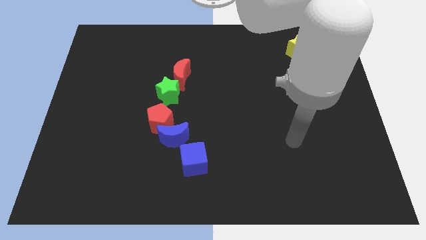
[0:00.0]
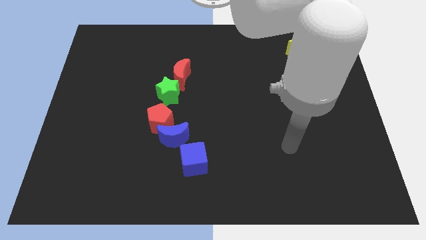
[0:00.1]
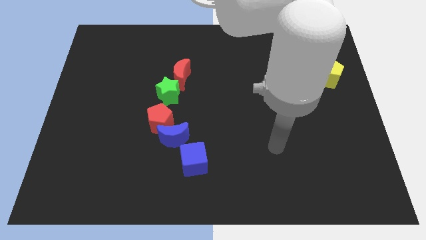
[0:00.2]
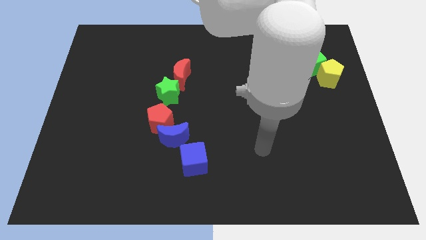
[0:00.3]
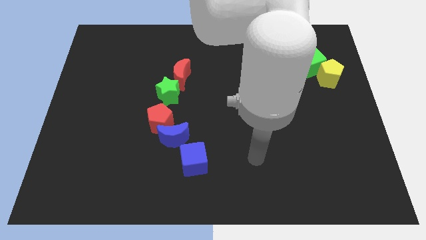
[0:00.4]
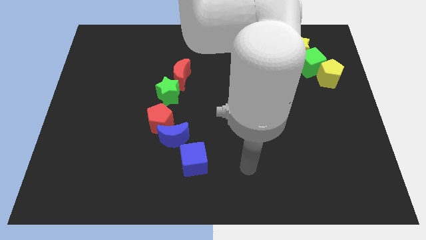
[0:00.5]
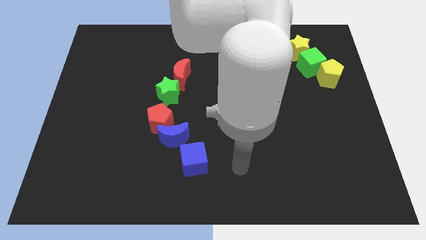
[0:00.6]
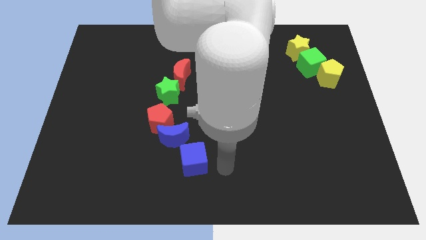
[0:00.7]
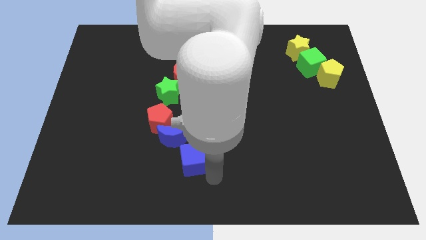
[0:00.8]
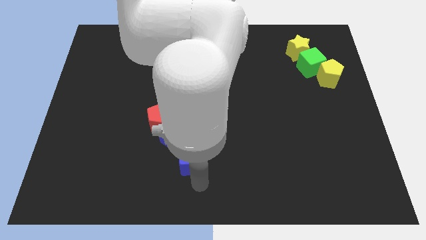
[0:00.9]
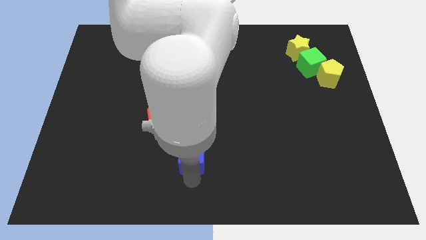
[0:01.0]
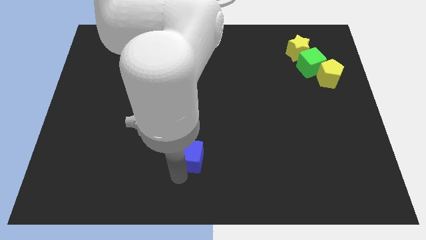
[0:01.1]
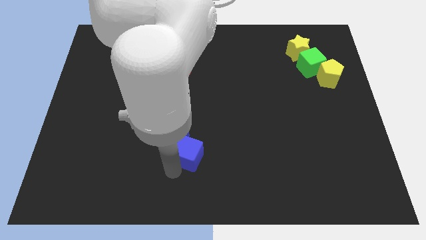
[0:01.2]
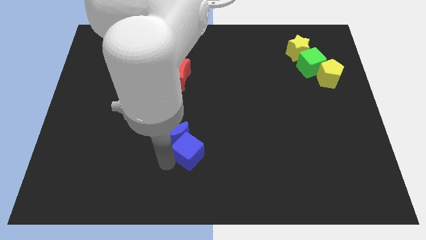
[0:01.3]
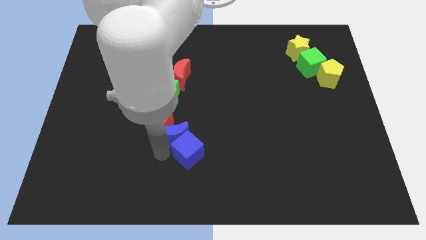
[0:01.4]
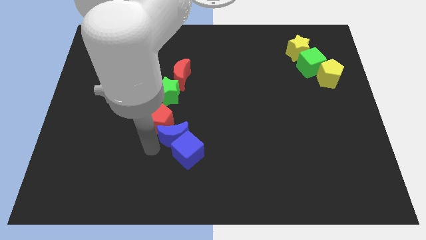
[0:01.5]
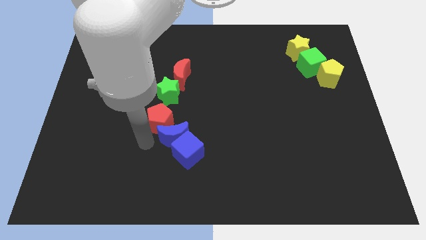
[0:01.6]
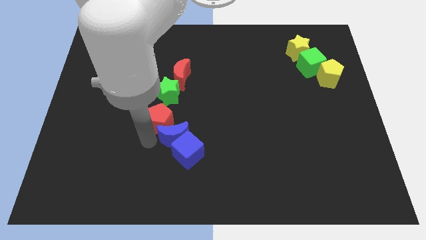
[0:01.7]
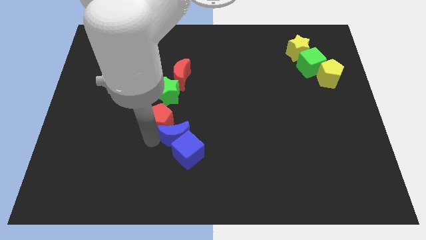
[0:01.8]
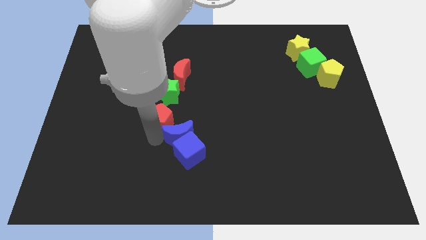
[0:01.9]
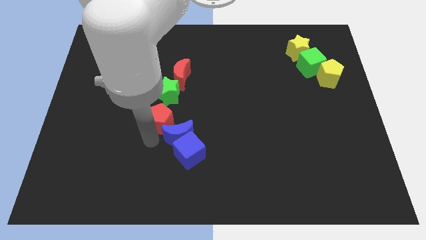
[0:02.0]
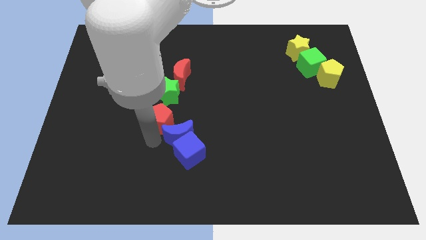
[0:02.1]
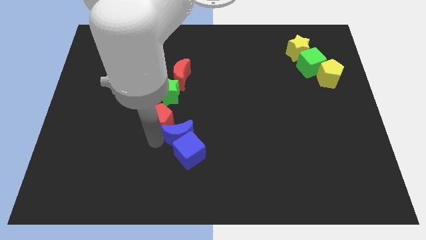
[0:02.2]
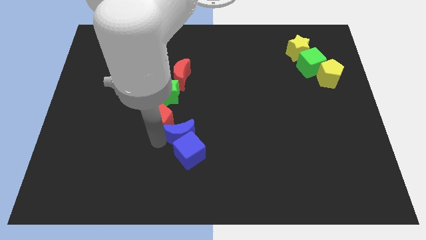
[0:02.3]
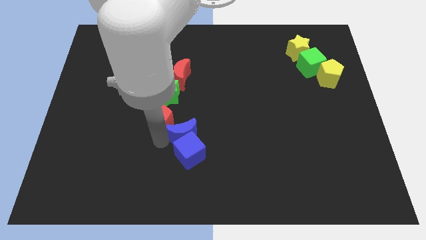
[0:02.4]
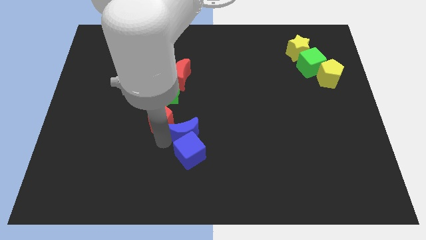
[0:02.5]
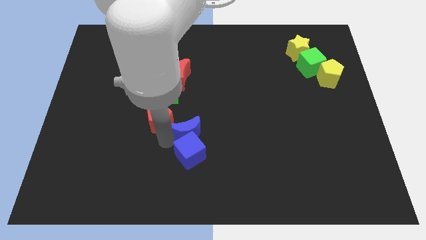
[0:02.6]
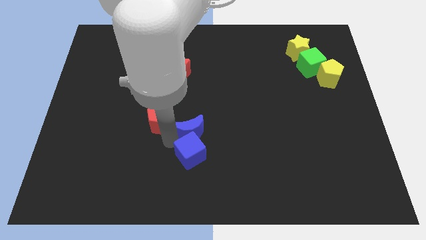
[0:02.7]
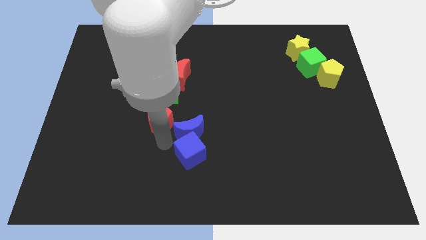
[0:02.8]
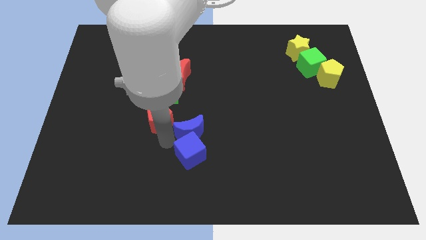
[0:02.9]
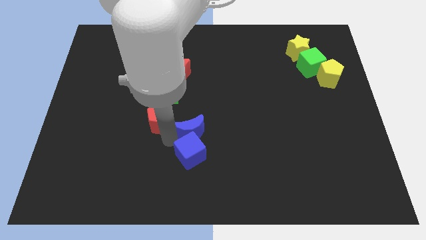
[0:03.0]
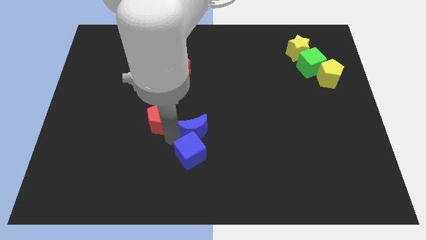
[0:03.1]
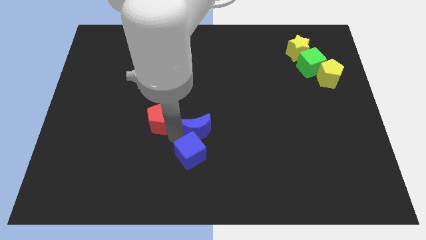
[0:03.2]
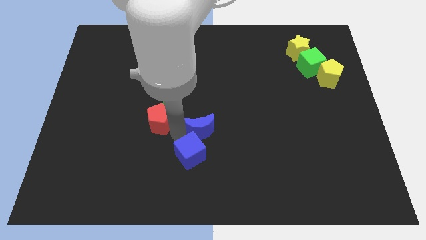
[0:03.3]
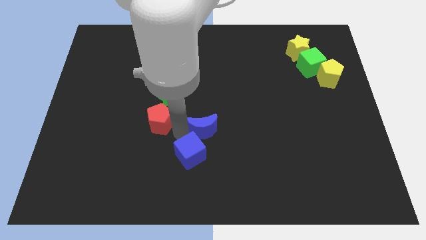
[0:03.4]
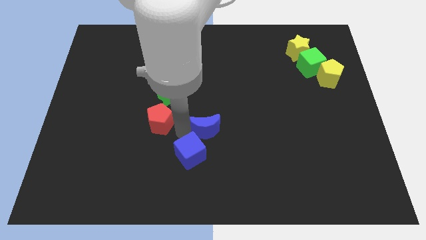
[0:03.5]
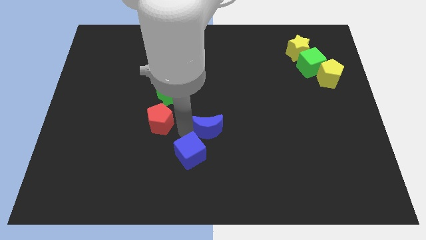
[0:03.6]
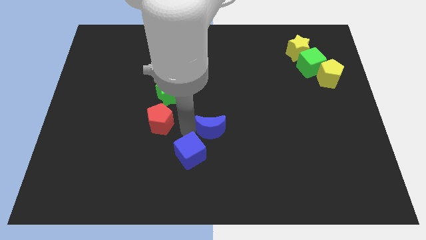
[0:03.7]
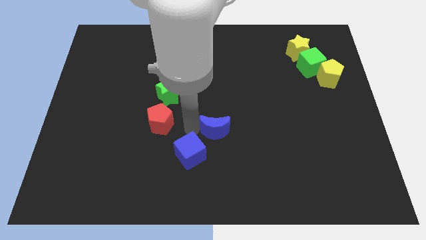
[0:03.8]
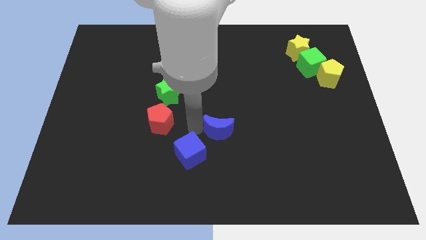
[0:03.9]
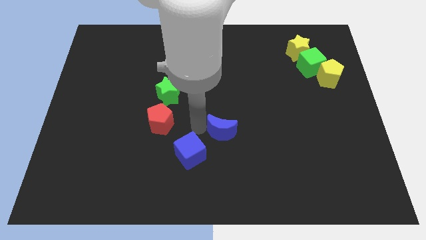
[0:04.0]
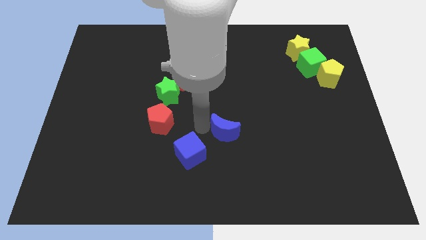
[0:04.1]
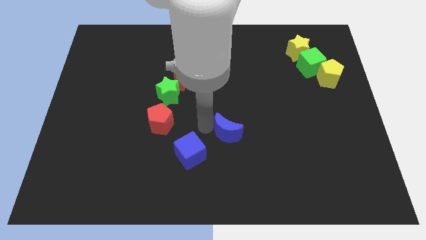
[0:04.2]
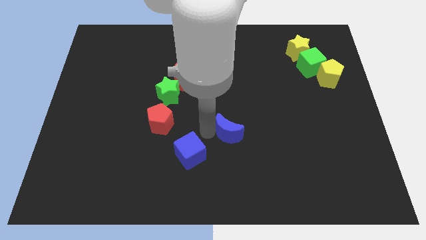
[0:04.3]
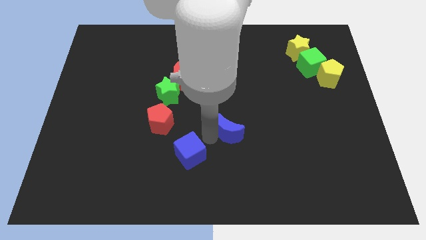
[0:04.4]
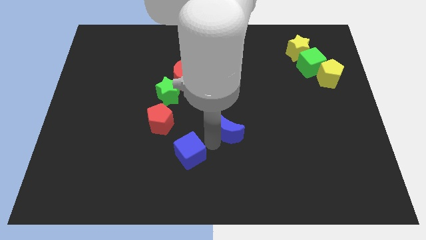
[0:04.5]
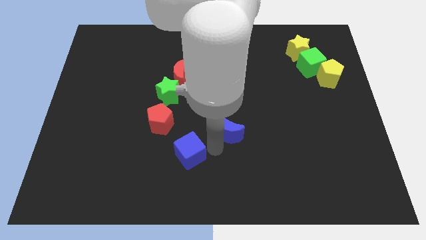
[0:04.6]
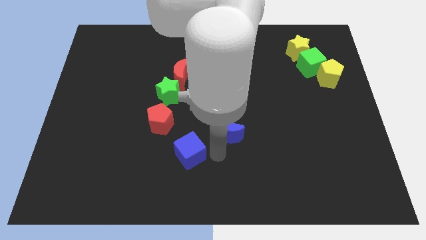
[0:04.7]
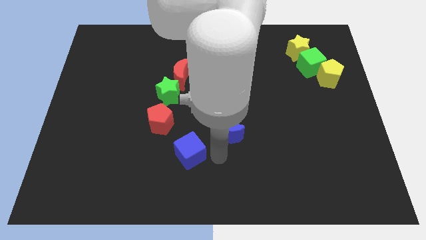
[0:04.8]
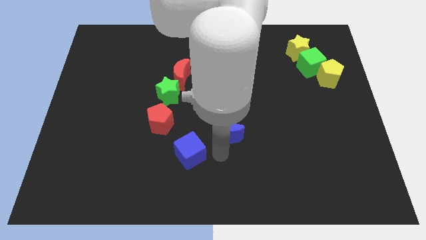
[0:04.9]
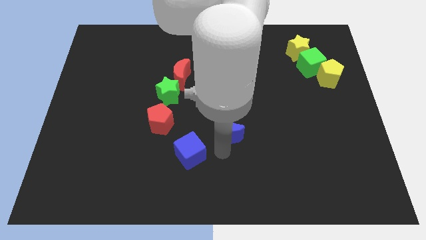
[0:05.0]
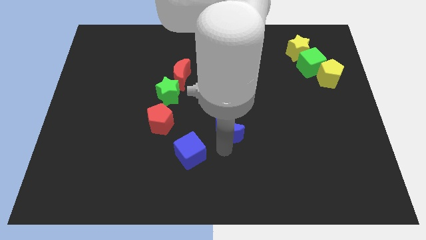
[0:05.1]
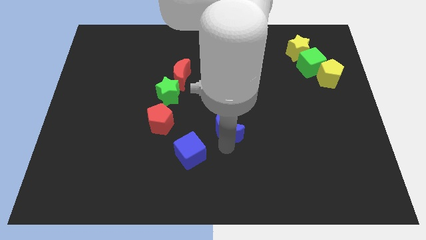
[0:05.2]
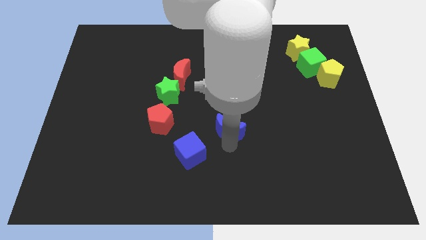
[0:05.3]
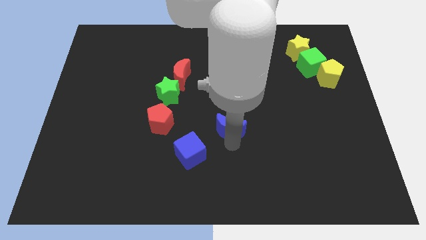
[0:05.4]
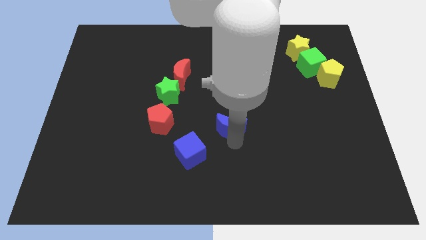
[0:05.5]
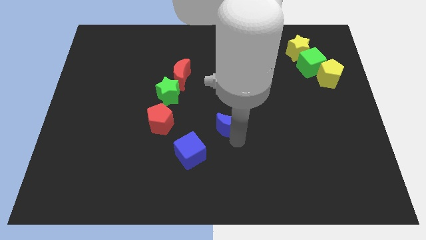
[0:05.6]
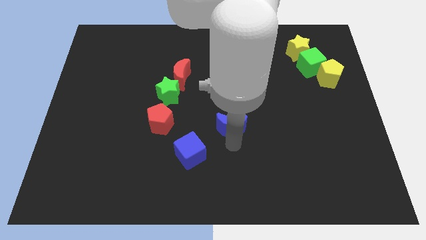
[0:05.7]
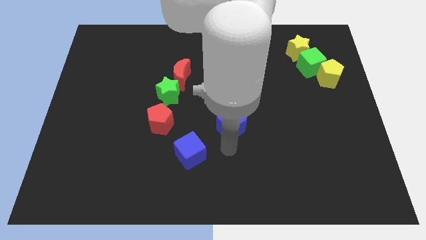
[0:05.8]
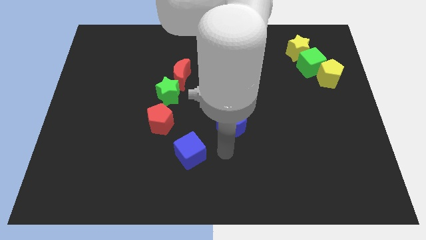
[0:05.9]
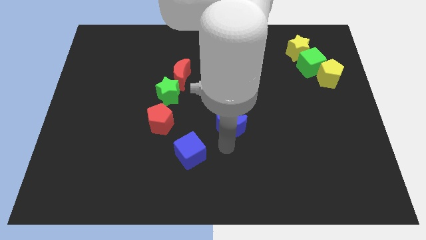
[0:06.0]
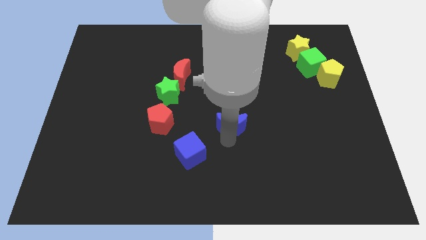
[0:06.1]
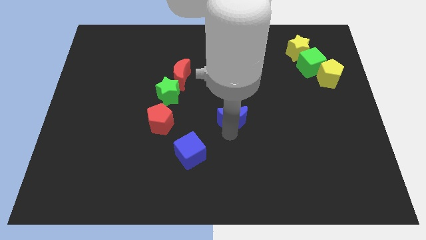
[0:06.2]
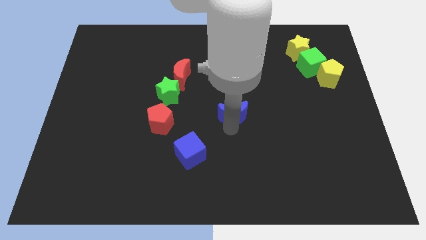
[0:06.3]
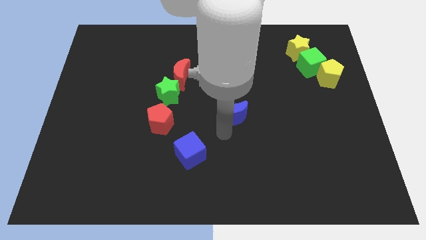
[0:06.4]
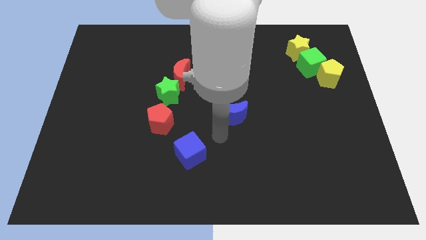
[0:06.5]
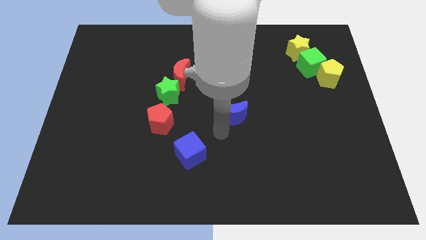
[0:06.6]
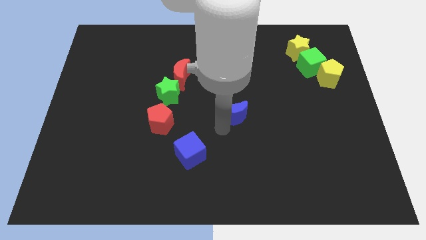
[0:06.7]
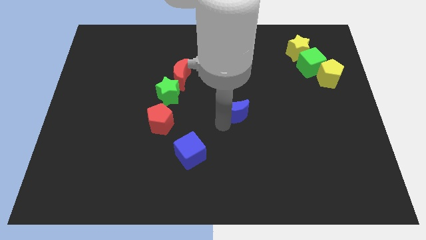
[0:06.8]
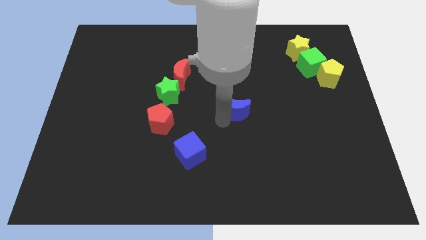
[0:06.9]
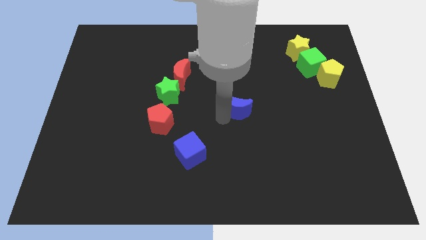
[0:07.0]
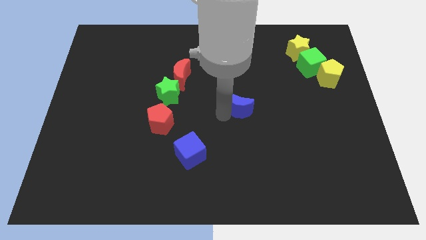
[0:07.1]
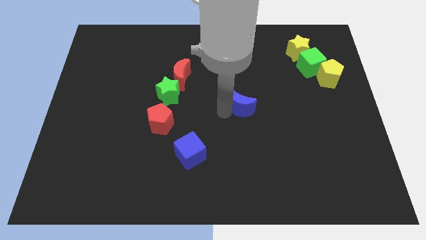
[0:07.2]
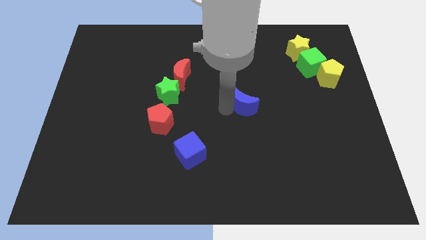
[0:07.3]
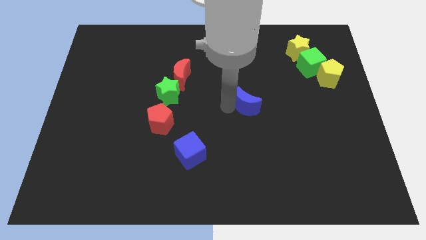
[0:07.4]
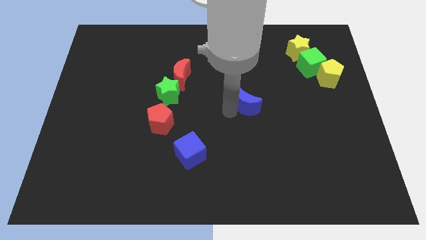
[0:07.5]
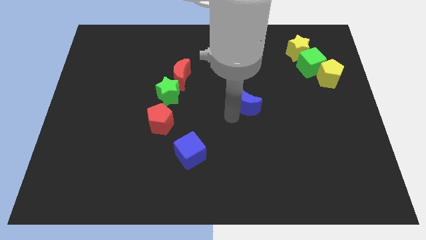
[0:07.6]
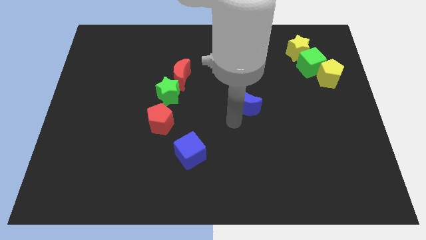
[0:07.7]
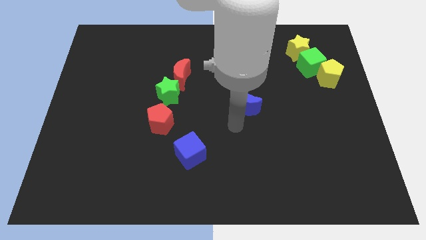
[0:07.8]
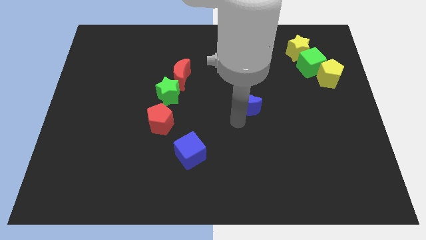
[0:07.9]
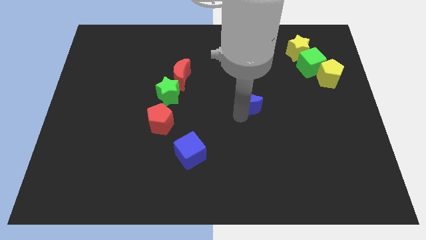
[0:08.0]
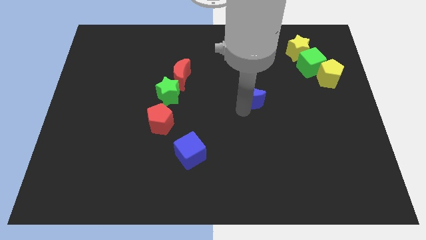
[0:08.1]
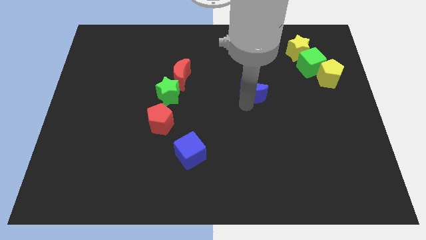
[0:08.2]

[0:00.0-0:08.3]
slide the blue moon up and then right

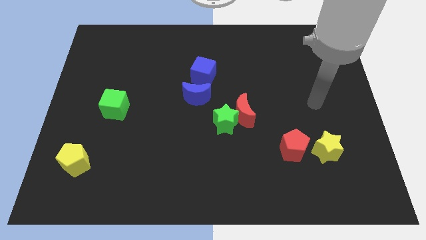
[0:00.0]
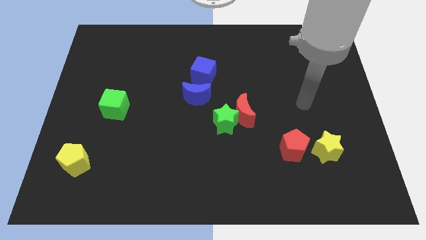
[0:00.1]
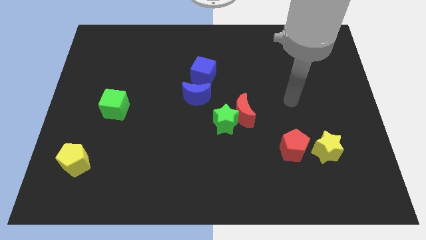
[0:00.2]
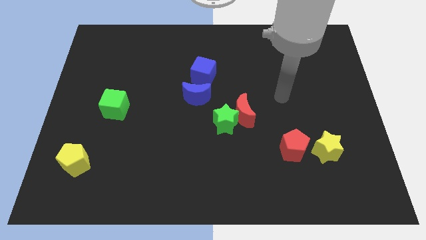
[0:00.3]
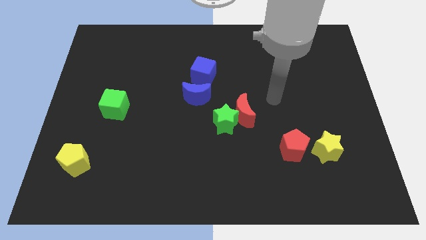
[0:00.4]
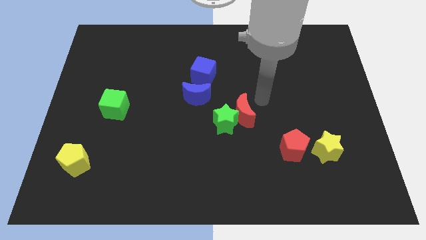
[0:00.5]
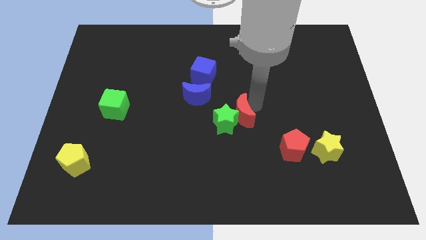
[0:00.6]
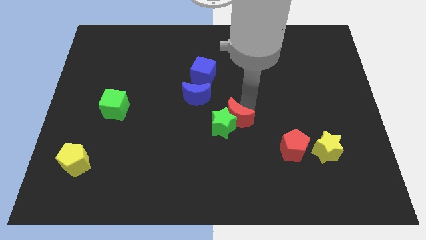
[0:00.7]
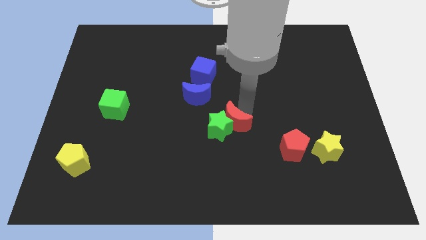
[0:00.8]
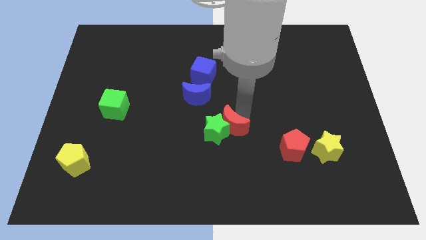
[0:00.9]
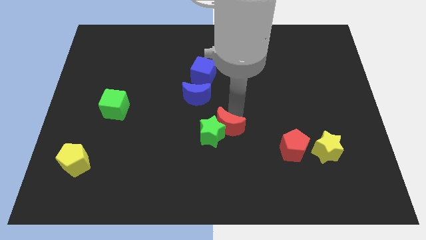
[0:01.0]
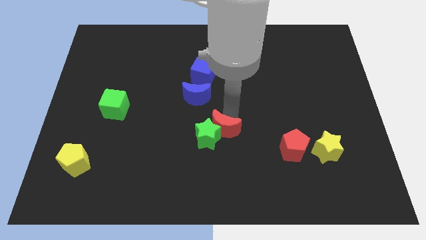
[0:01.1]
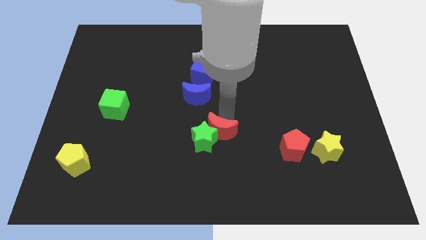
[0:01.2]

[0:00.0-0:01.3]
slightly move the green star down and to the left
